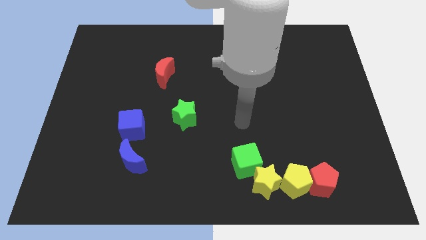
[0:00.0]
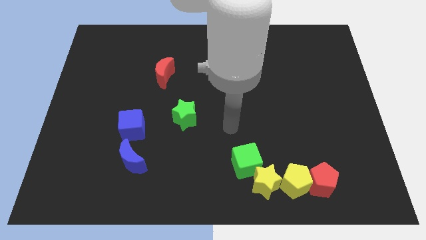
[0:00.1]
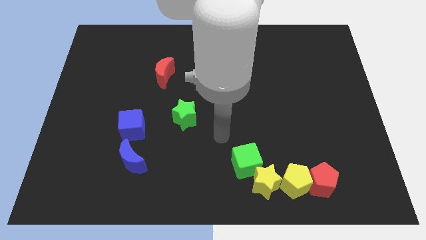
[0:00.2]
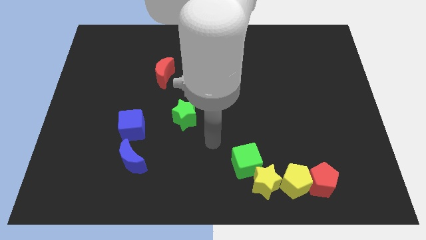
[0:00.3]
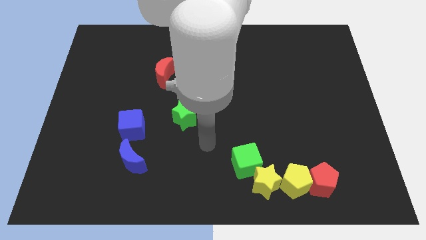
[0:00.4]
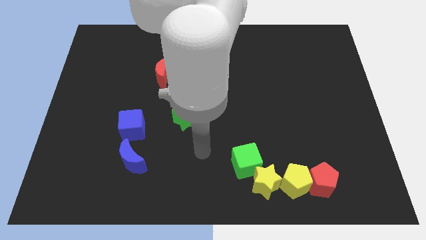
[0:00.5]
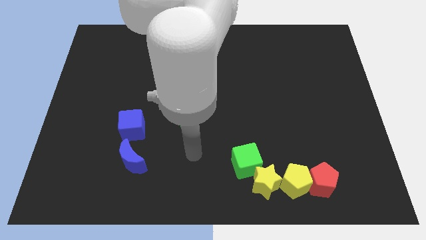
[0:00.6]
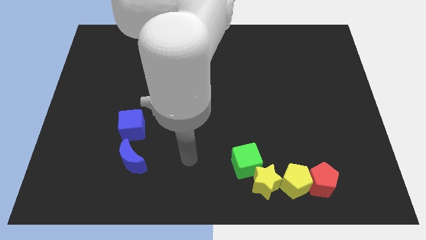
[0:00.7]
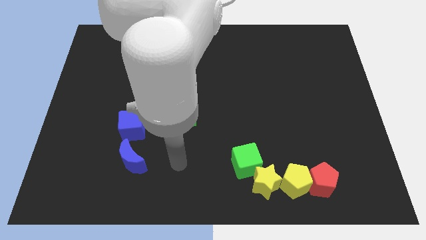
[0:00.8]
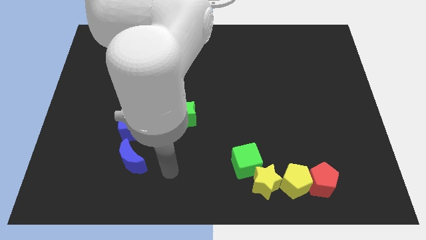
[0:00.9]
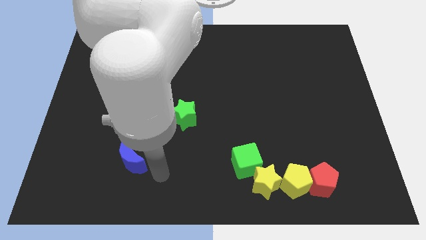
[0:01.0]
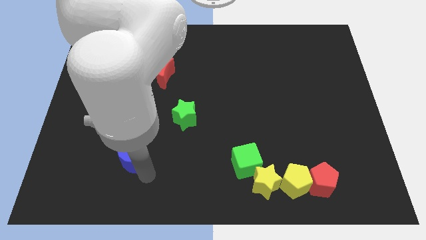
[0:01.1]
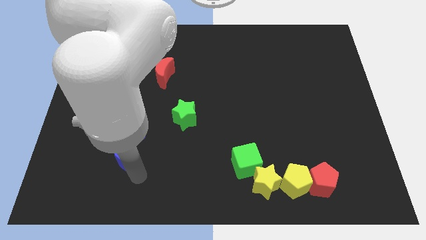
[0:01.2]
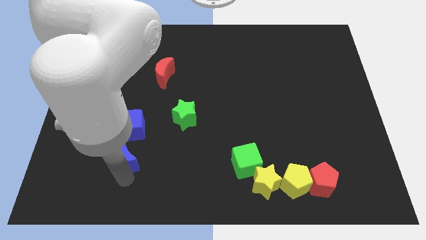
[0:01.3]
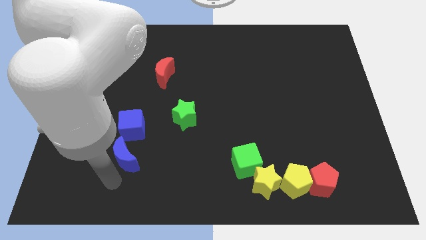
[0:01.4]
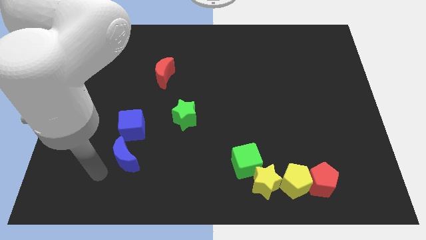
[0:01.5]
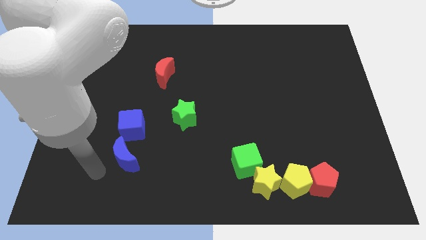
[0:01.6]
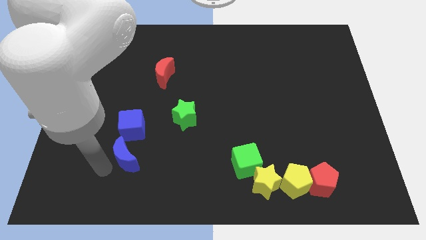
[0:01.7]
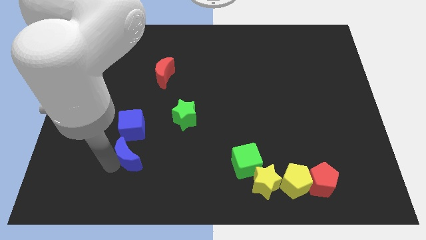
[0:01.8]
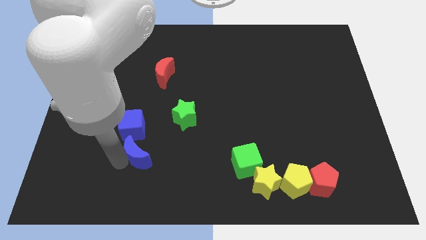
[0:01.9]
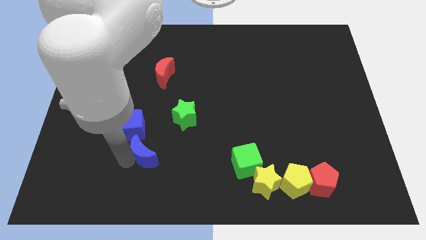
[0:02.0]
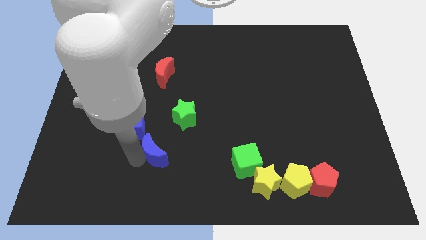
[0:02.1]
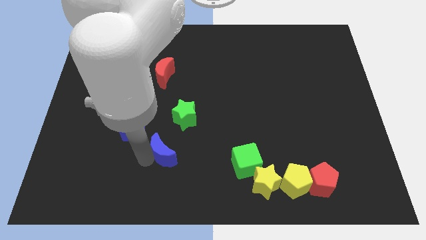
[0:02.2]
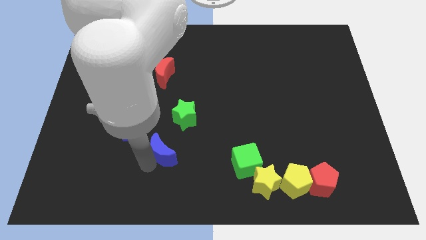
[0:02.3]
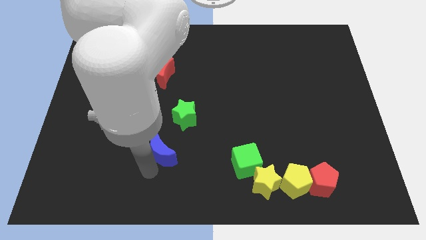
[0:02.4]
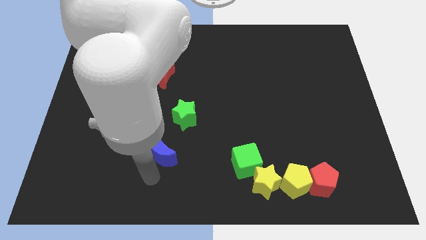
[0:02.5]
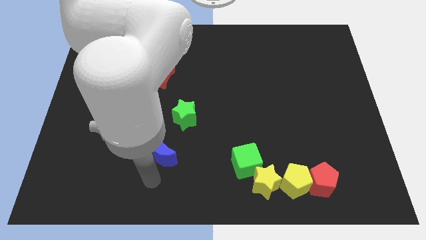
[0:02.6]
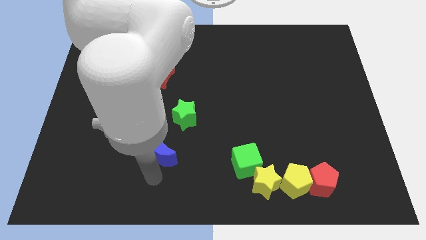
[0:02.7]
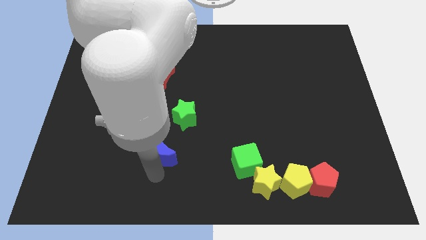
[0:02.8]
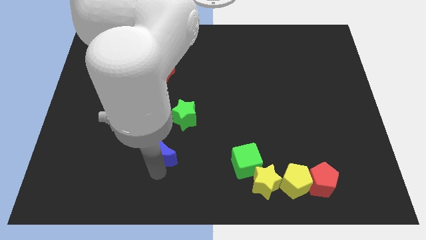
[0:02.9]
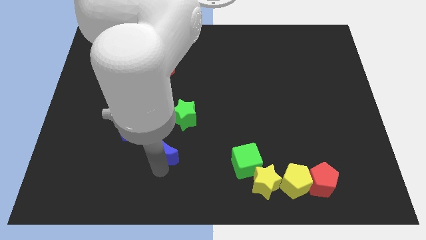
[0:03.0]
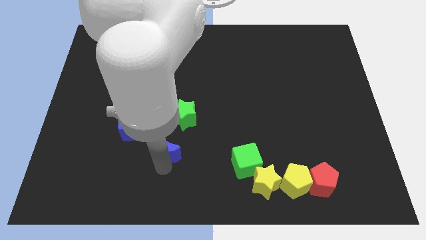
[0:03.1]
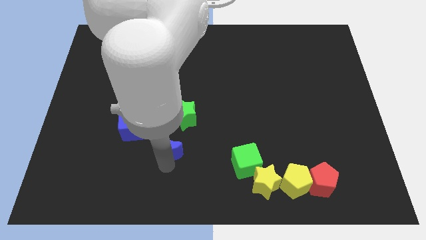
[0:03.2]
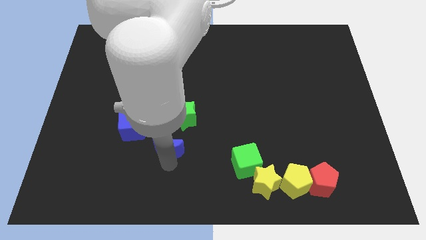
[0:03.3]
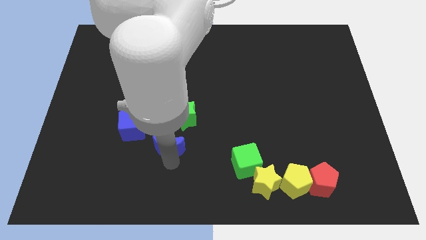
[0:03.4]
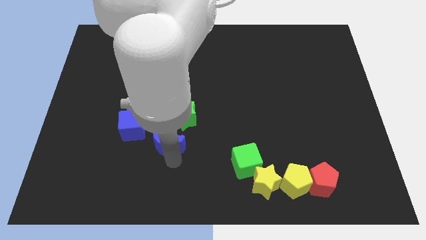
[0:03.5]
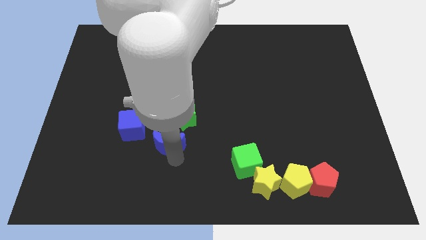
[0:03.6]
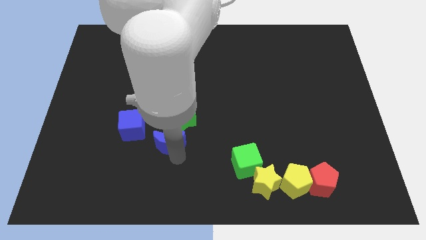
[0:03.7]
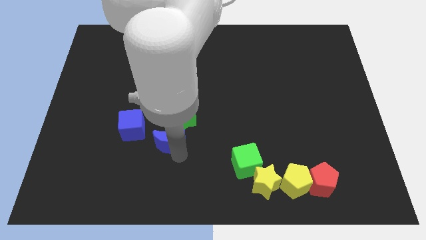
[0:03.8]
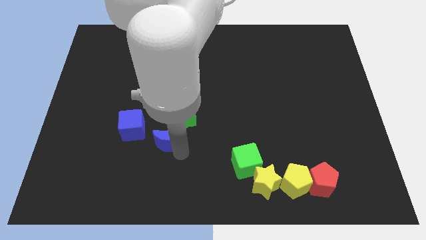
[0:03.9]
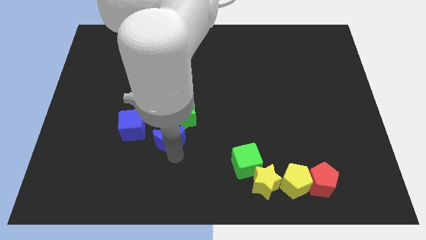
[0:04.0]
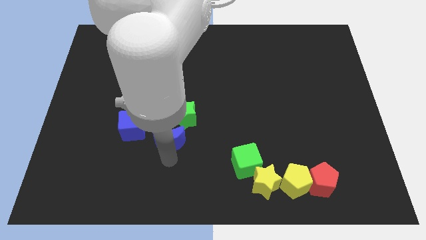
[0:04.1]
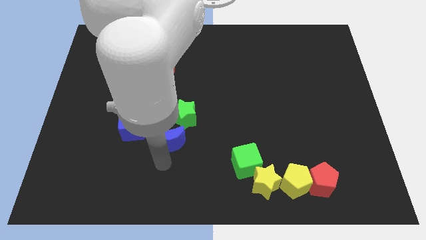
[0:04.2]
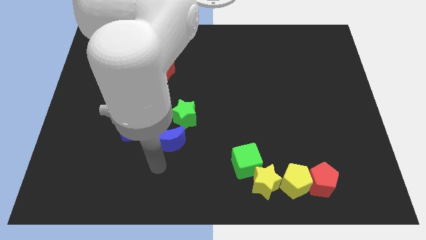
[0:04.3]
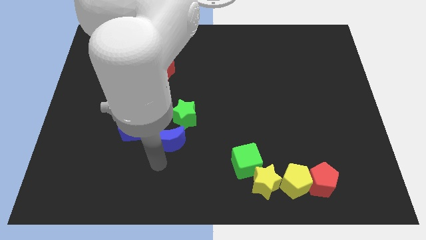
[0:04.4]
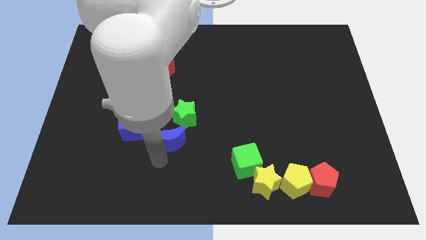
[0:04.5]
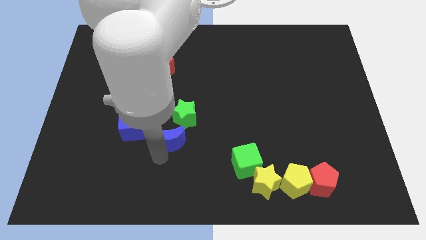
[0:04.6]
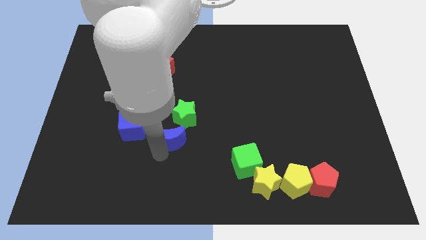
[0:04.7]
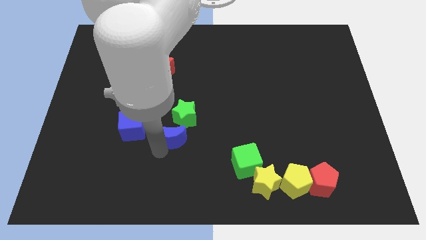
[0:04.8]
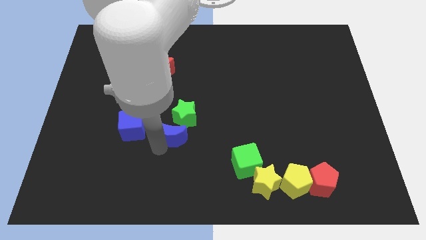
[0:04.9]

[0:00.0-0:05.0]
slide the blue moon towards the green star

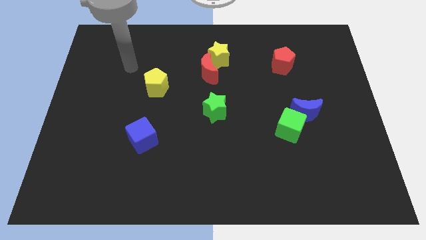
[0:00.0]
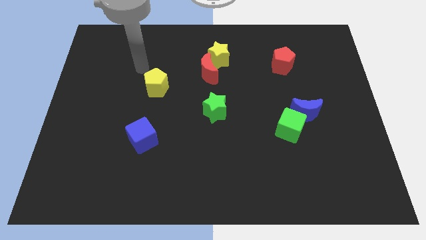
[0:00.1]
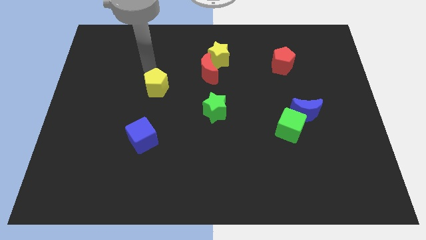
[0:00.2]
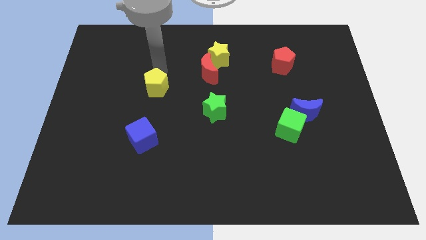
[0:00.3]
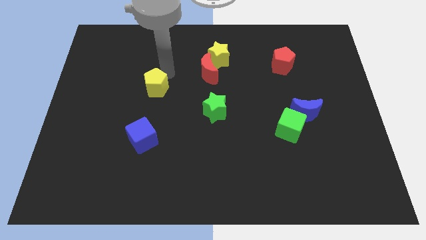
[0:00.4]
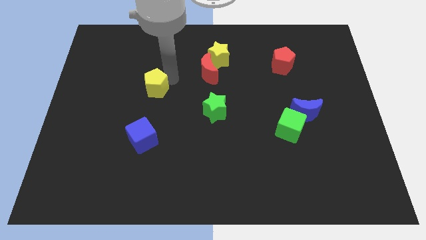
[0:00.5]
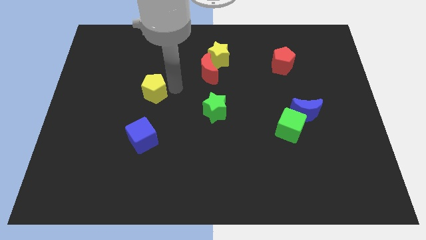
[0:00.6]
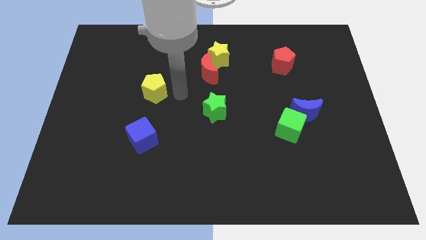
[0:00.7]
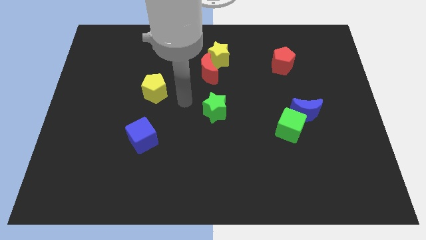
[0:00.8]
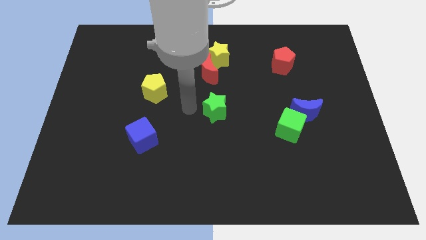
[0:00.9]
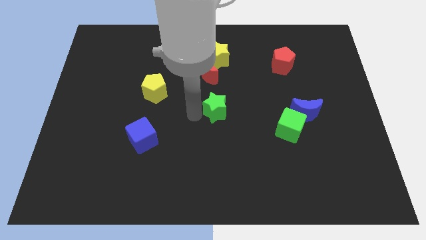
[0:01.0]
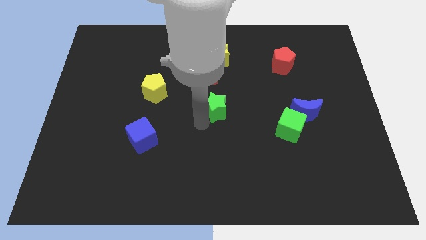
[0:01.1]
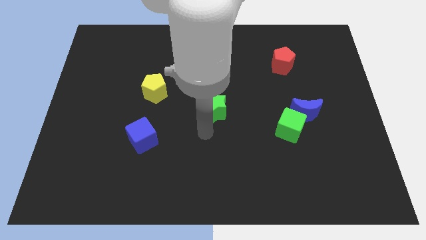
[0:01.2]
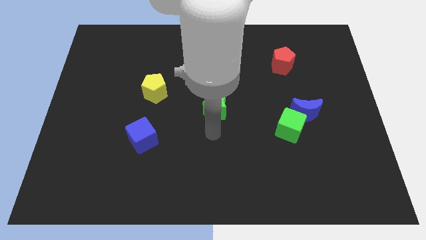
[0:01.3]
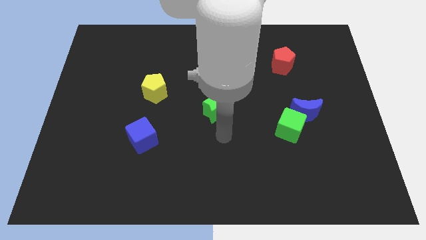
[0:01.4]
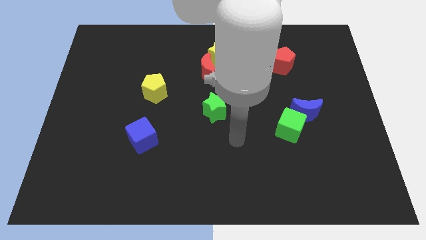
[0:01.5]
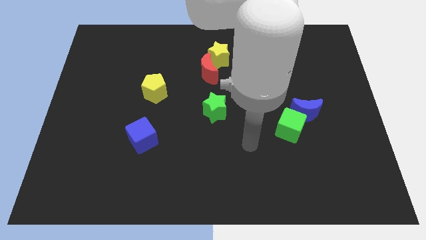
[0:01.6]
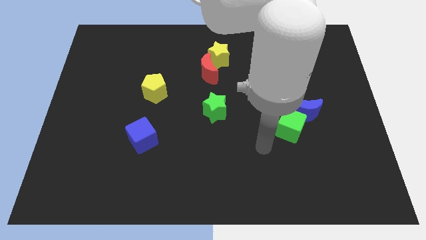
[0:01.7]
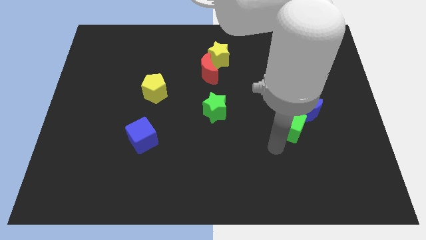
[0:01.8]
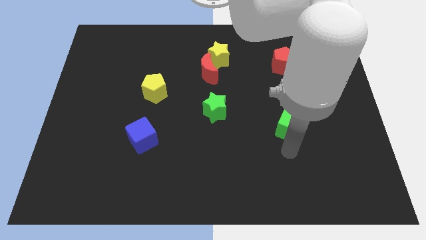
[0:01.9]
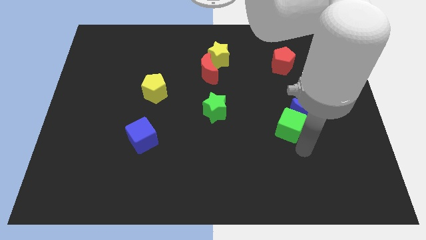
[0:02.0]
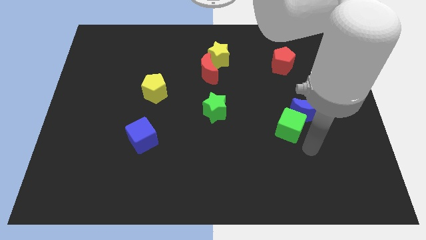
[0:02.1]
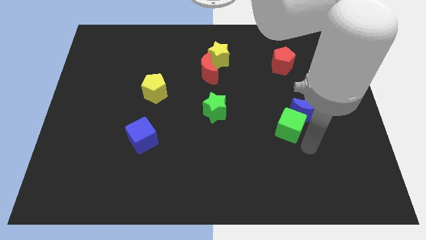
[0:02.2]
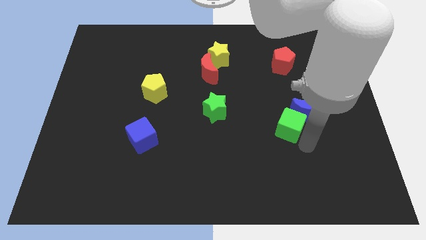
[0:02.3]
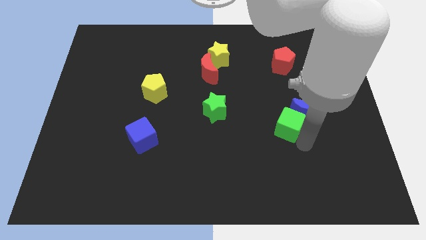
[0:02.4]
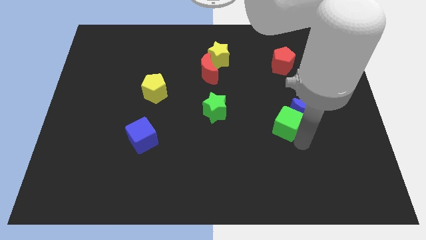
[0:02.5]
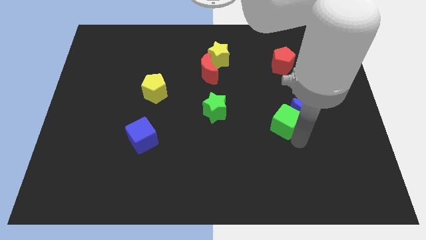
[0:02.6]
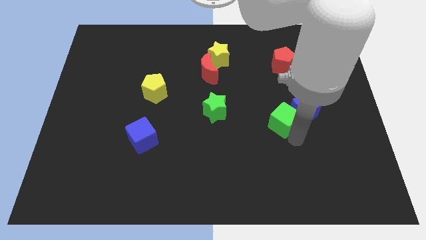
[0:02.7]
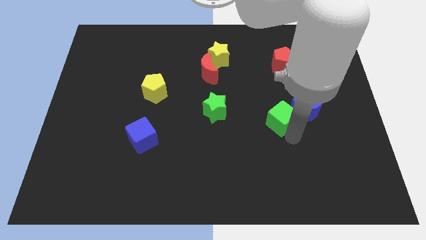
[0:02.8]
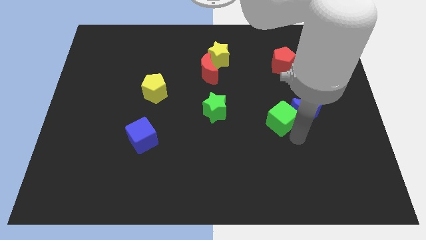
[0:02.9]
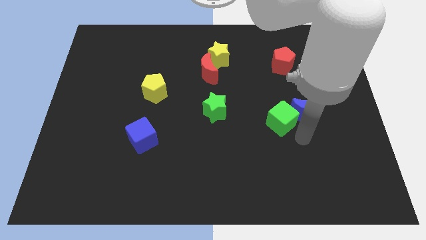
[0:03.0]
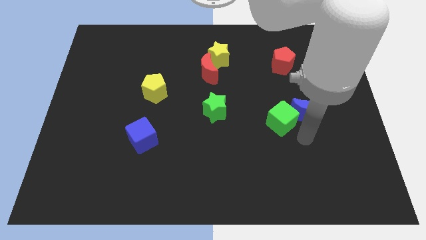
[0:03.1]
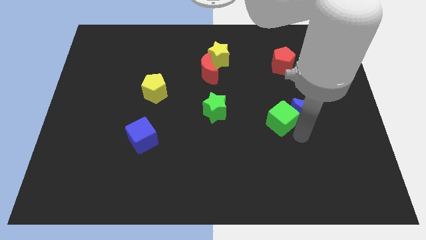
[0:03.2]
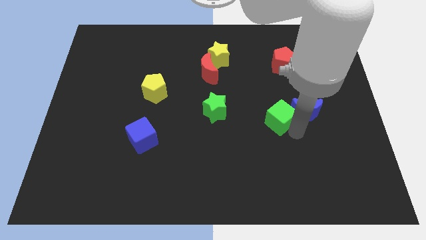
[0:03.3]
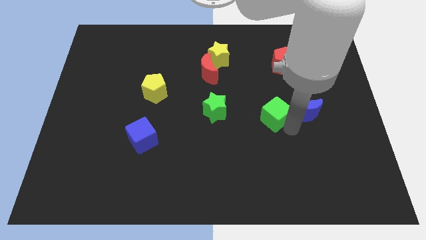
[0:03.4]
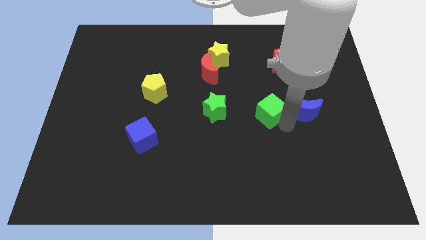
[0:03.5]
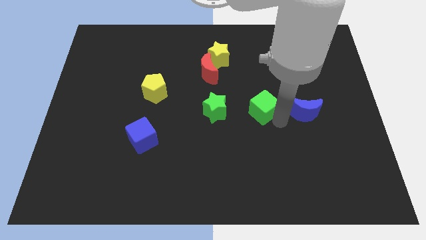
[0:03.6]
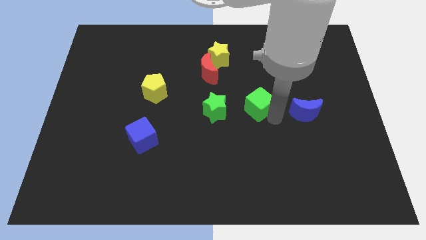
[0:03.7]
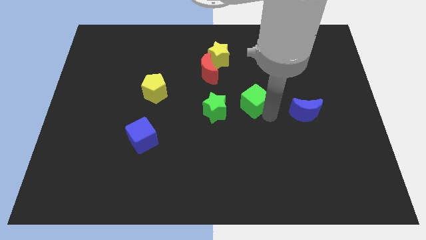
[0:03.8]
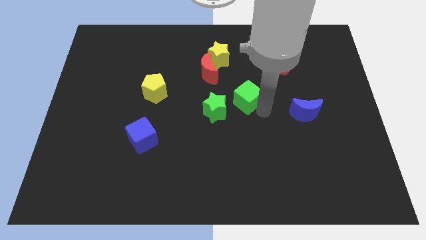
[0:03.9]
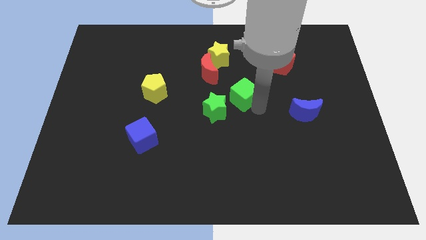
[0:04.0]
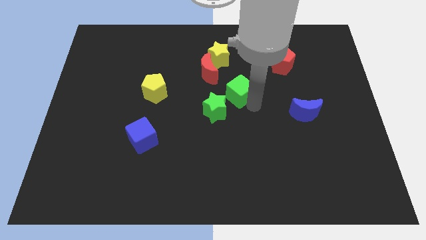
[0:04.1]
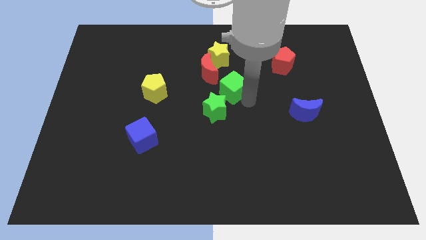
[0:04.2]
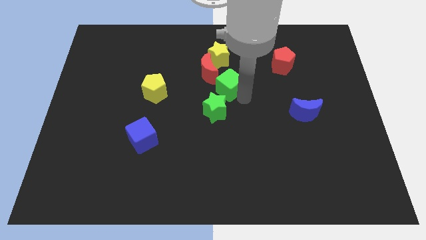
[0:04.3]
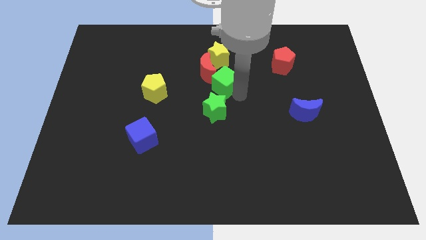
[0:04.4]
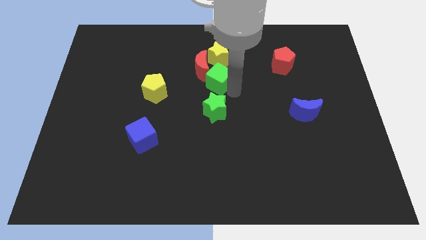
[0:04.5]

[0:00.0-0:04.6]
slide the green cube to the red moon
